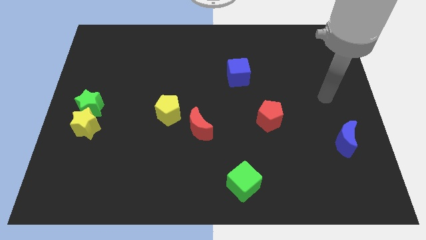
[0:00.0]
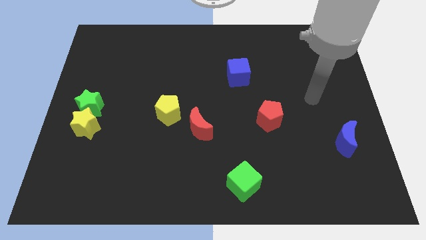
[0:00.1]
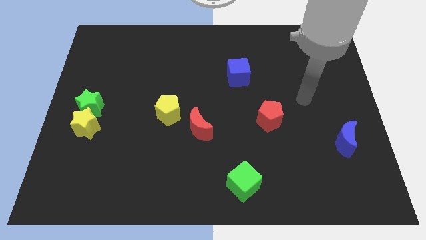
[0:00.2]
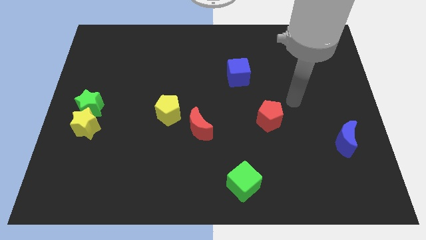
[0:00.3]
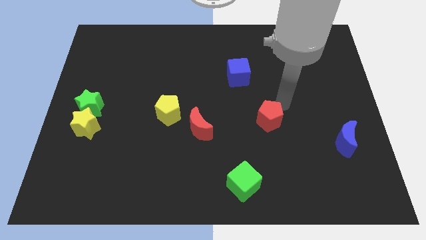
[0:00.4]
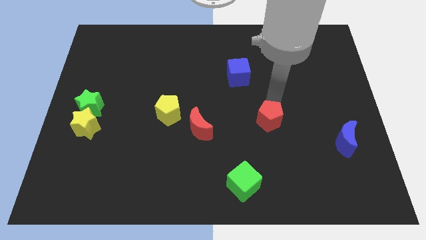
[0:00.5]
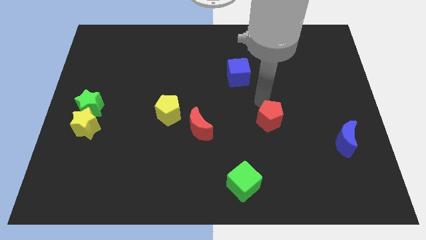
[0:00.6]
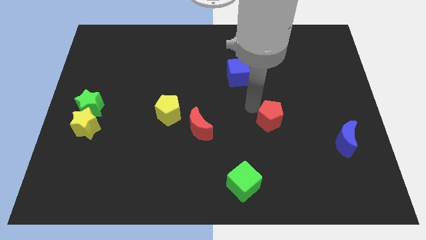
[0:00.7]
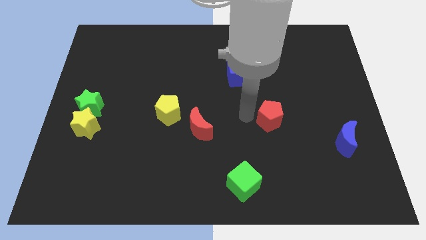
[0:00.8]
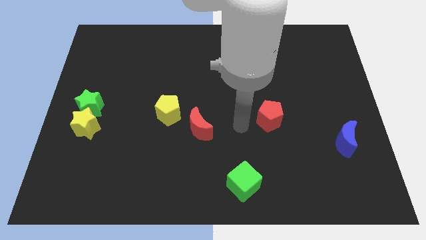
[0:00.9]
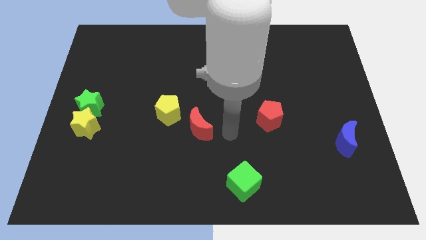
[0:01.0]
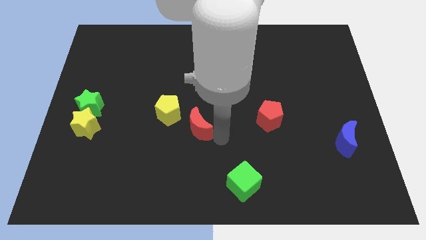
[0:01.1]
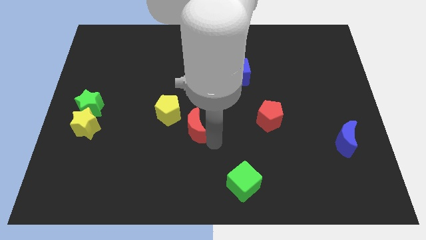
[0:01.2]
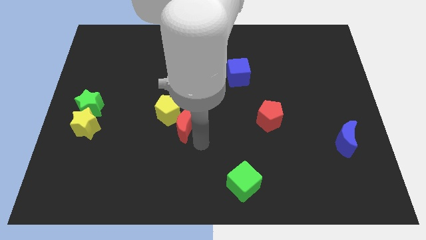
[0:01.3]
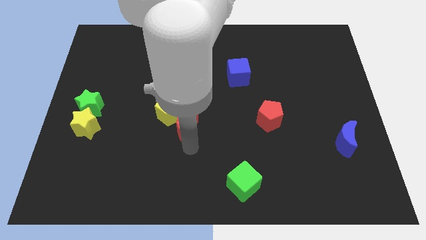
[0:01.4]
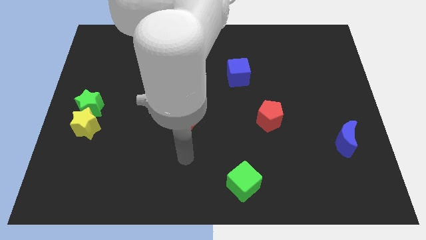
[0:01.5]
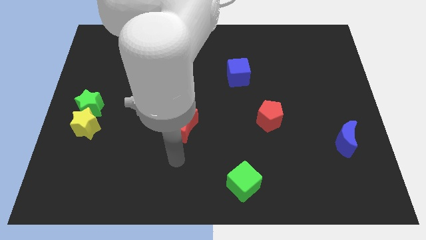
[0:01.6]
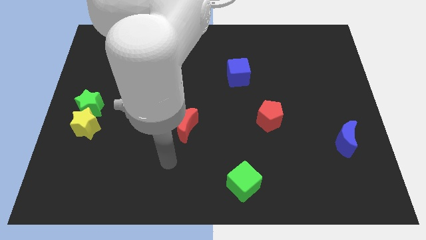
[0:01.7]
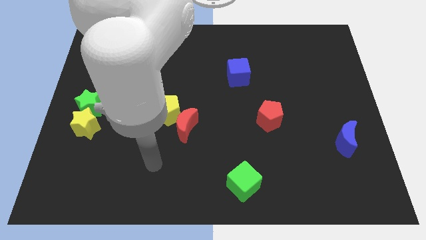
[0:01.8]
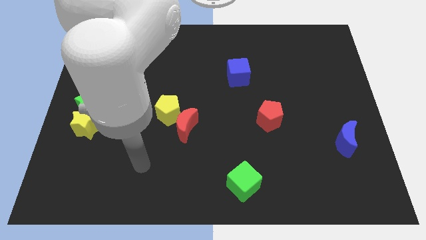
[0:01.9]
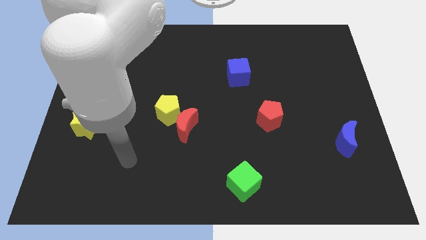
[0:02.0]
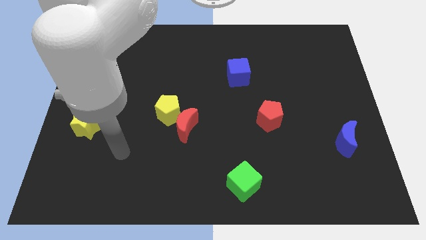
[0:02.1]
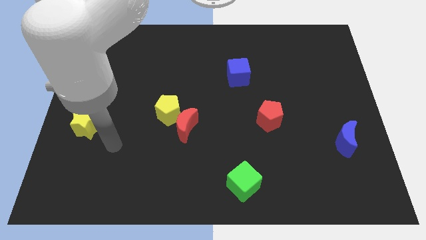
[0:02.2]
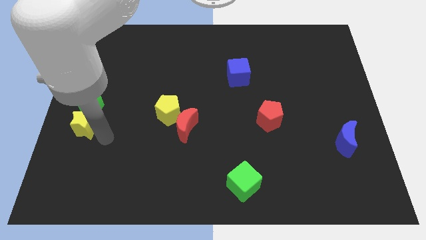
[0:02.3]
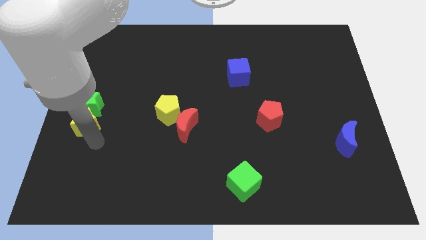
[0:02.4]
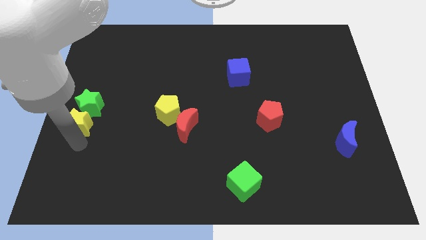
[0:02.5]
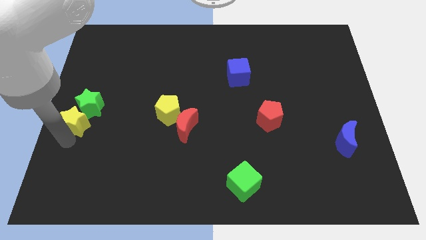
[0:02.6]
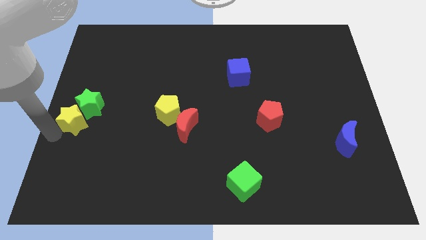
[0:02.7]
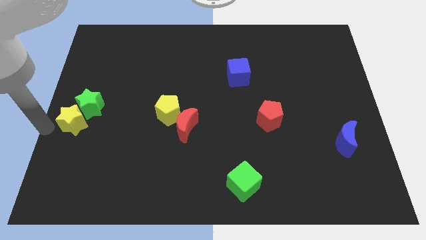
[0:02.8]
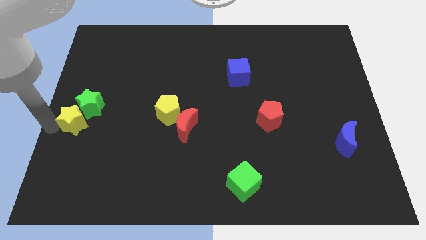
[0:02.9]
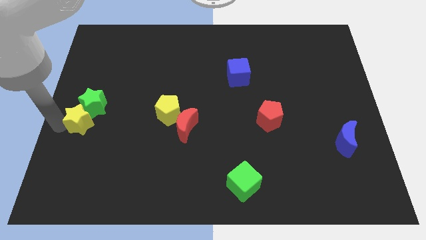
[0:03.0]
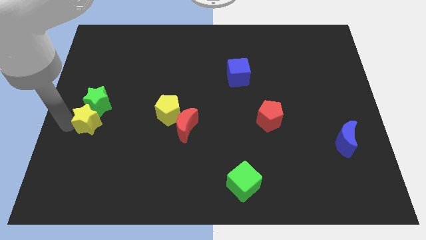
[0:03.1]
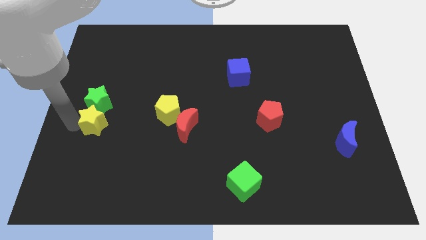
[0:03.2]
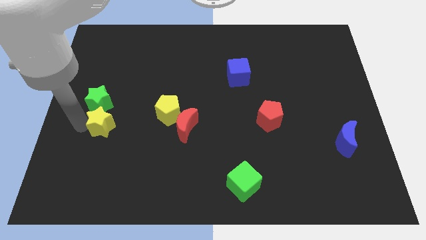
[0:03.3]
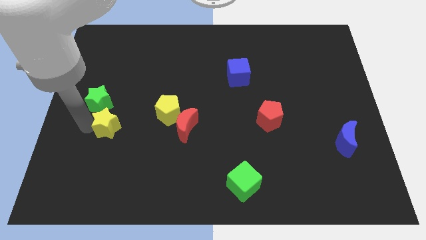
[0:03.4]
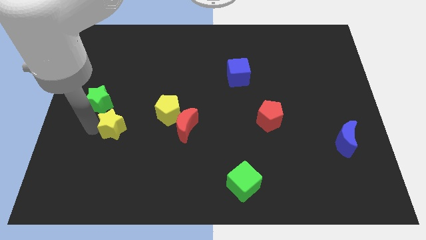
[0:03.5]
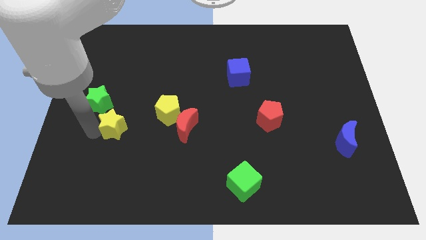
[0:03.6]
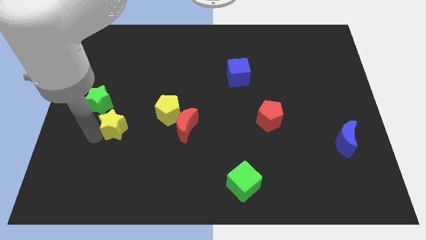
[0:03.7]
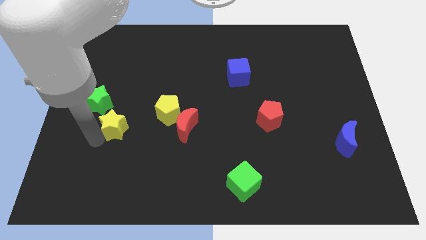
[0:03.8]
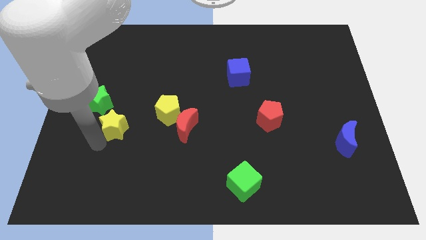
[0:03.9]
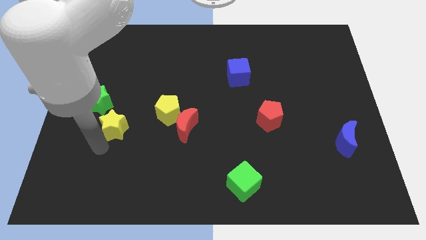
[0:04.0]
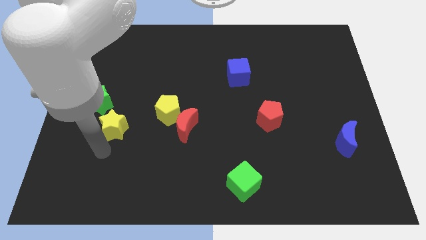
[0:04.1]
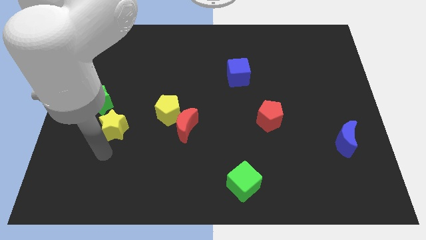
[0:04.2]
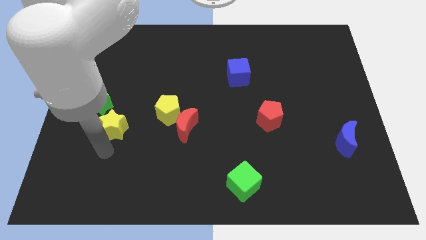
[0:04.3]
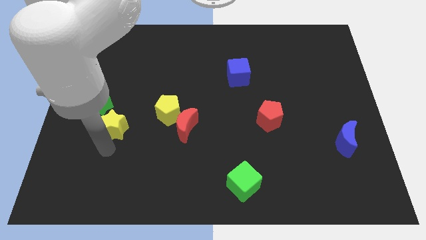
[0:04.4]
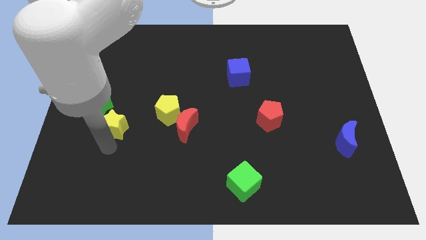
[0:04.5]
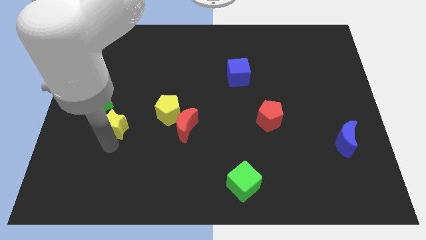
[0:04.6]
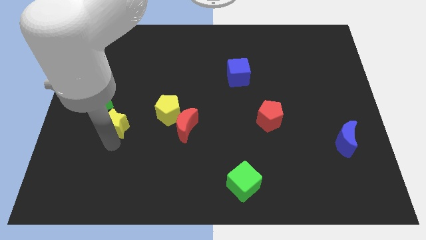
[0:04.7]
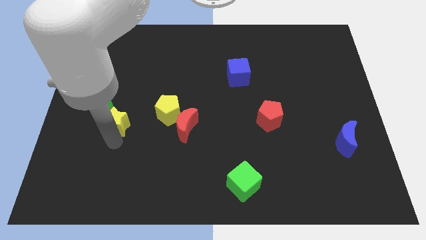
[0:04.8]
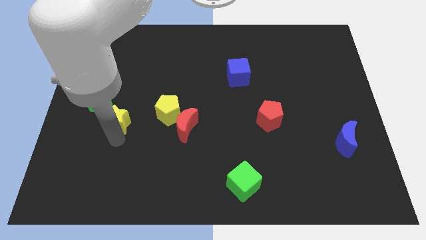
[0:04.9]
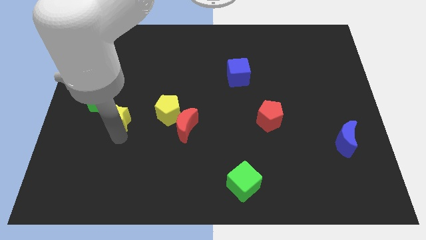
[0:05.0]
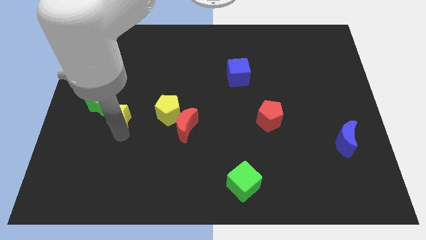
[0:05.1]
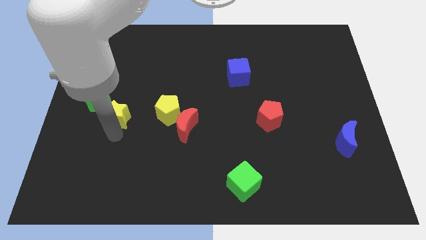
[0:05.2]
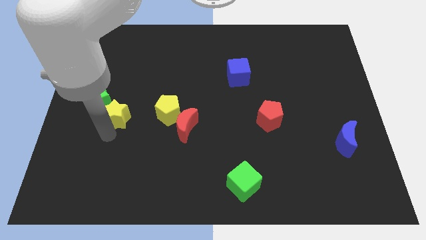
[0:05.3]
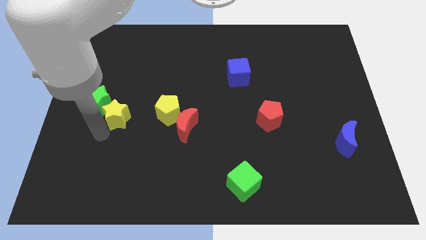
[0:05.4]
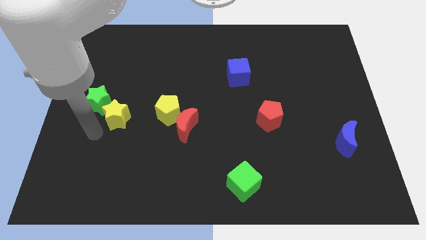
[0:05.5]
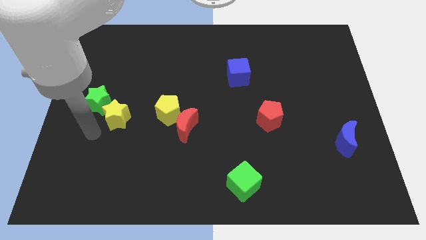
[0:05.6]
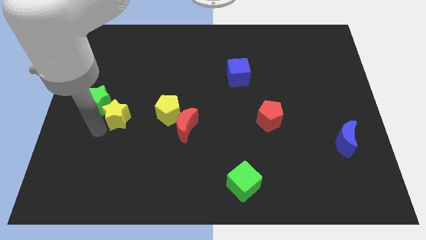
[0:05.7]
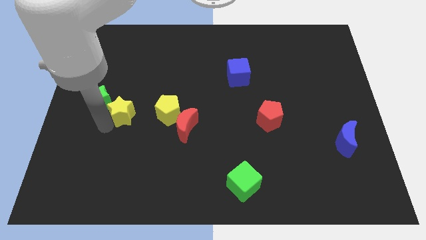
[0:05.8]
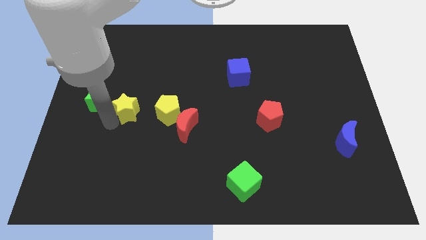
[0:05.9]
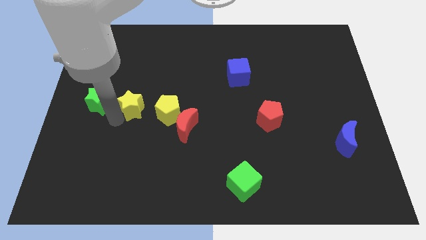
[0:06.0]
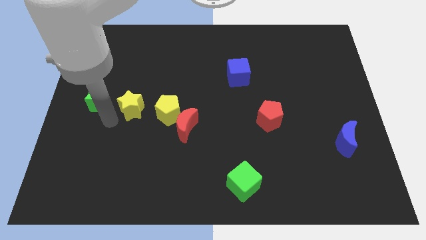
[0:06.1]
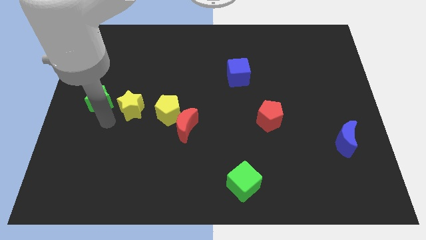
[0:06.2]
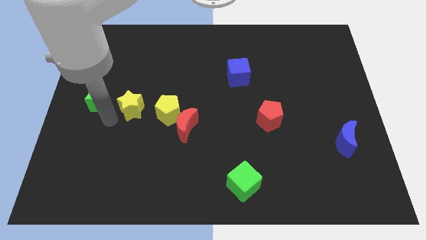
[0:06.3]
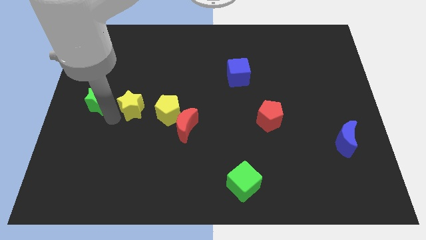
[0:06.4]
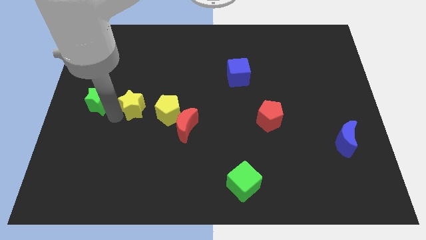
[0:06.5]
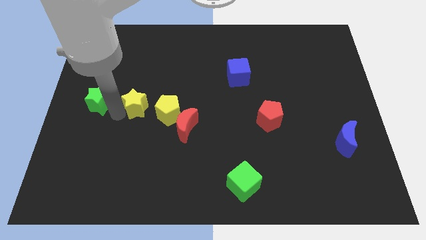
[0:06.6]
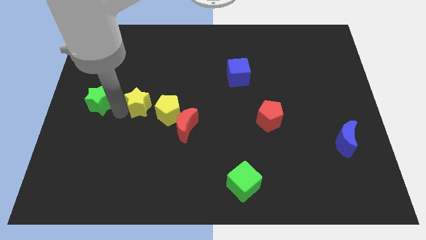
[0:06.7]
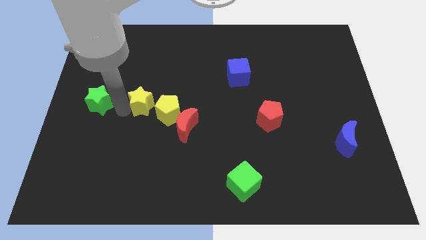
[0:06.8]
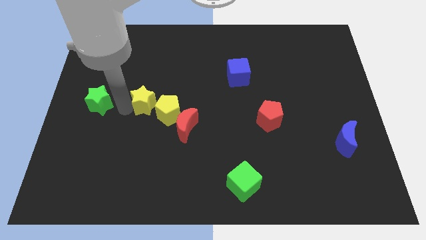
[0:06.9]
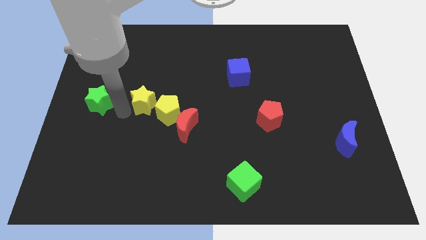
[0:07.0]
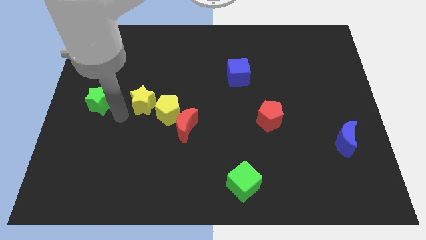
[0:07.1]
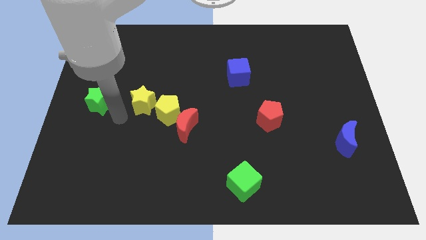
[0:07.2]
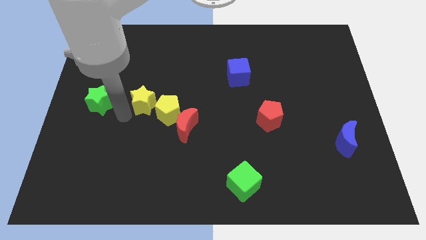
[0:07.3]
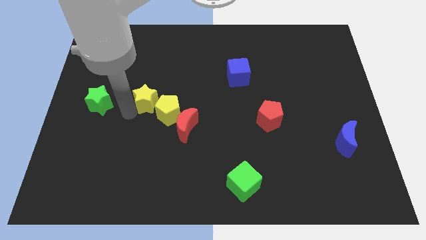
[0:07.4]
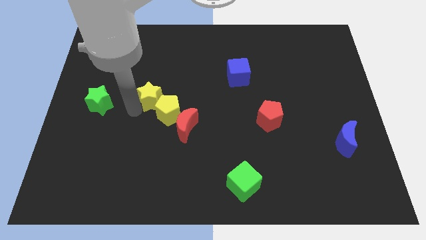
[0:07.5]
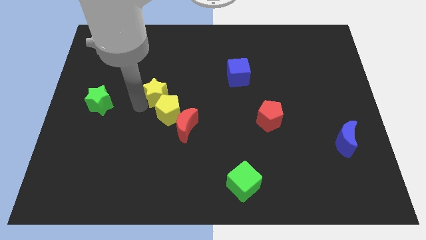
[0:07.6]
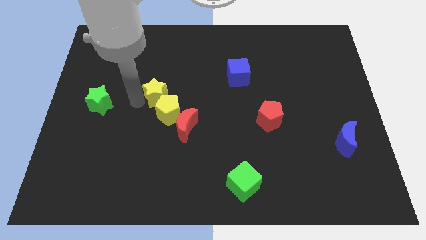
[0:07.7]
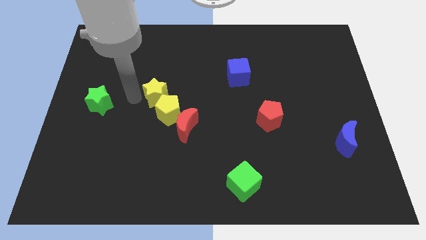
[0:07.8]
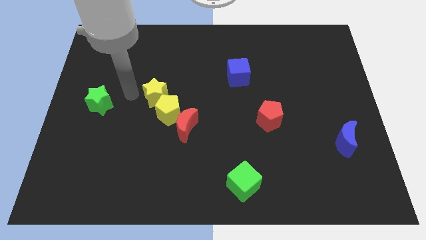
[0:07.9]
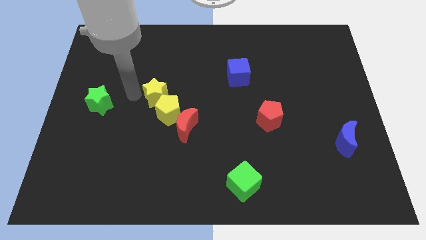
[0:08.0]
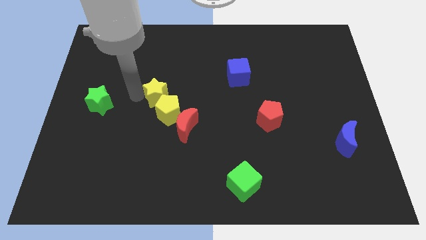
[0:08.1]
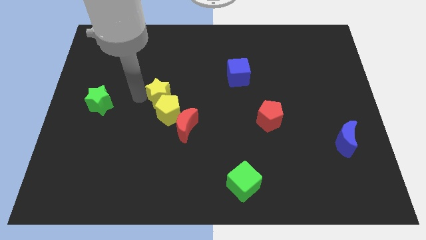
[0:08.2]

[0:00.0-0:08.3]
push the yellow star to the middle of the board
